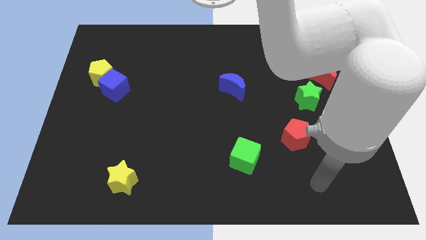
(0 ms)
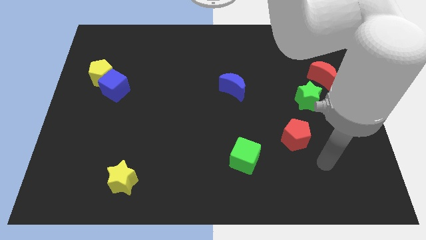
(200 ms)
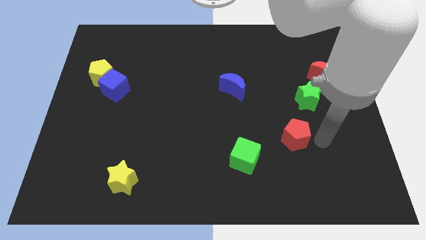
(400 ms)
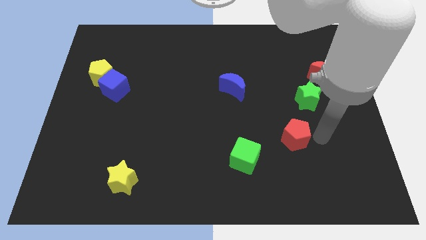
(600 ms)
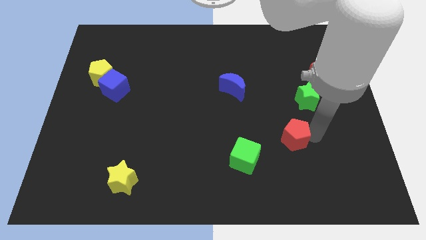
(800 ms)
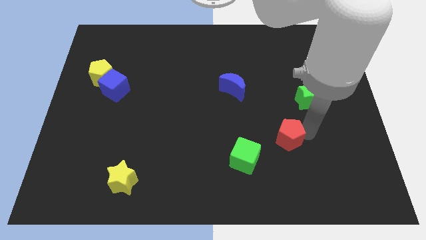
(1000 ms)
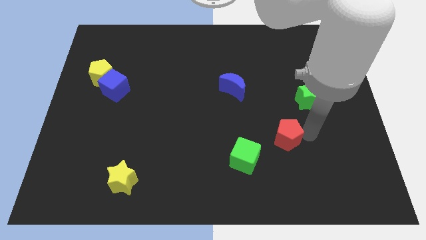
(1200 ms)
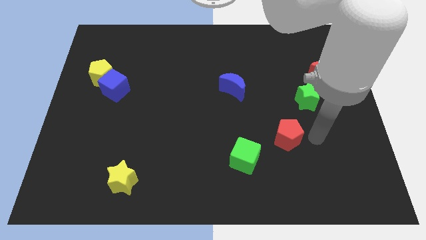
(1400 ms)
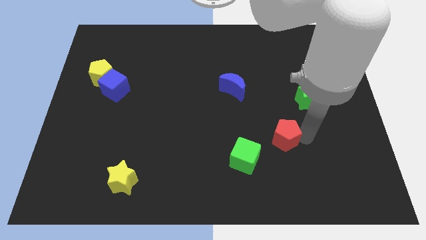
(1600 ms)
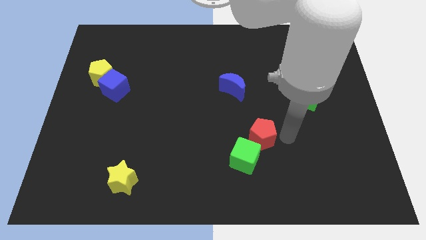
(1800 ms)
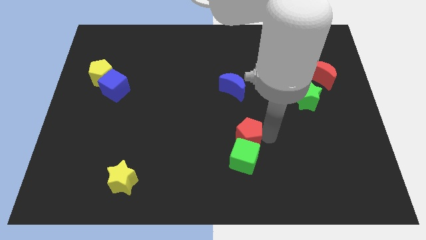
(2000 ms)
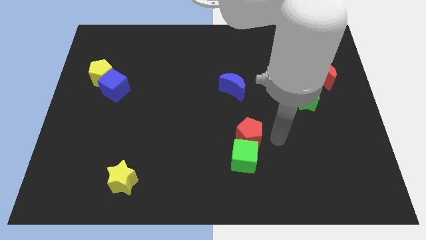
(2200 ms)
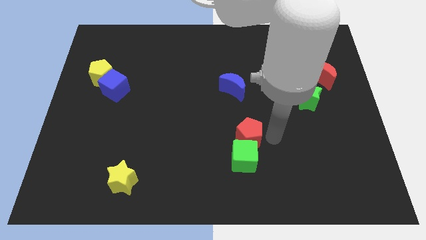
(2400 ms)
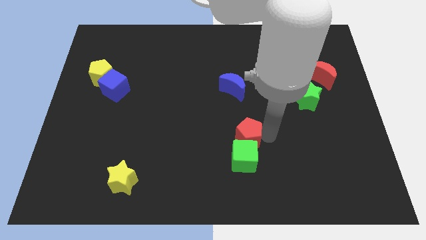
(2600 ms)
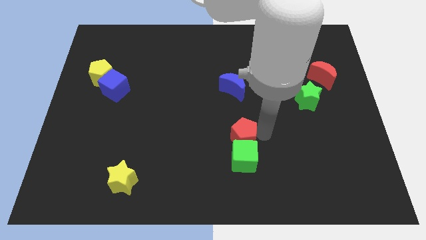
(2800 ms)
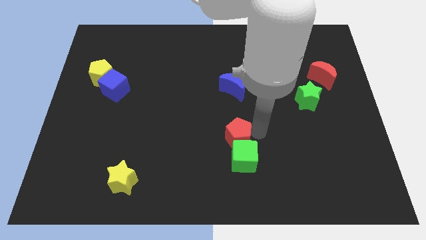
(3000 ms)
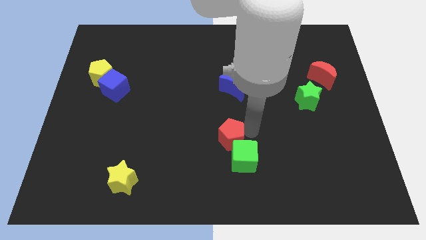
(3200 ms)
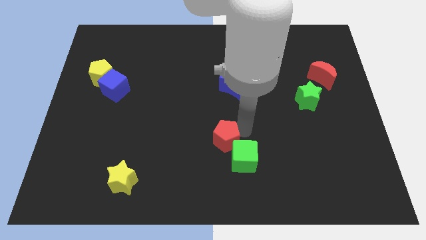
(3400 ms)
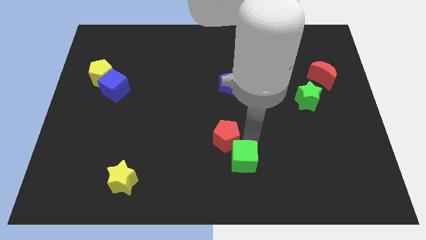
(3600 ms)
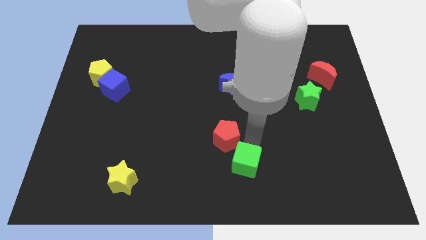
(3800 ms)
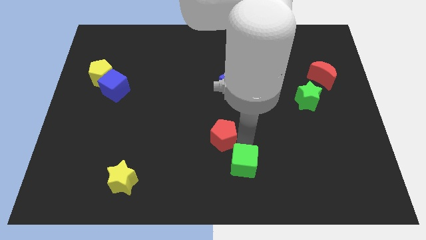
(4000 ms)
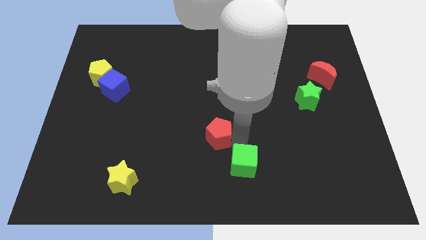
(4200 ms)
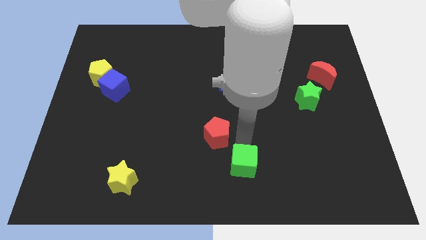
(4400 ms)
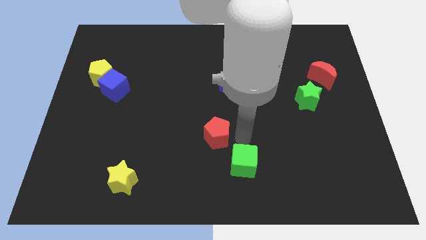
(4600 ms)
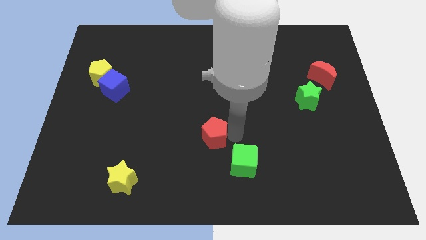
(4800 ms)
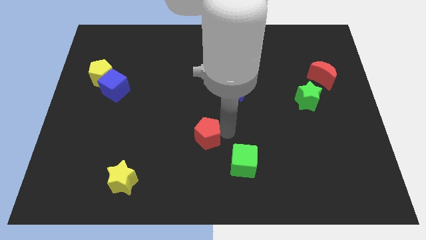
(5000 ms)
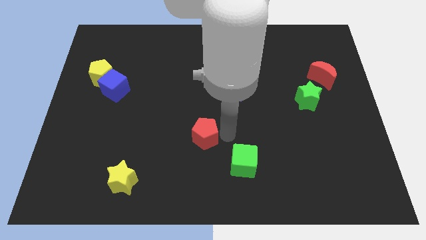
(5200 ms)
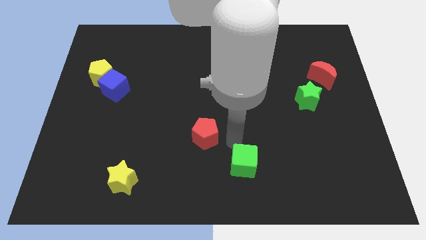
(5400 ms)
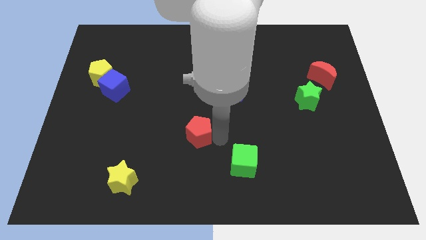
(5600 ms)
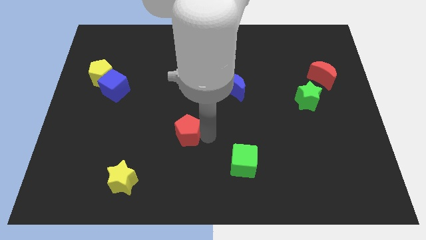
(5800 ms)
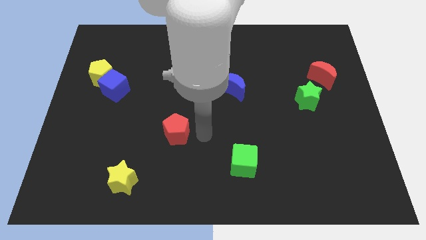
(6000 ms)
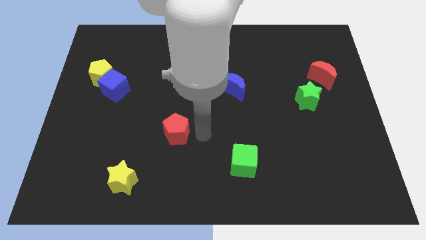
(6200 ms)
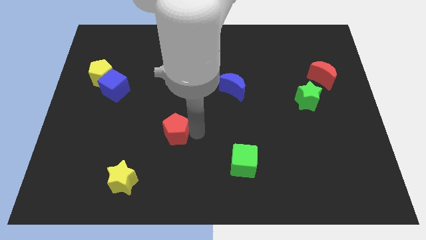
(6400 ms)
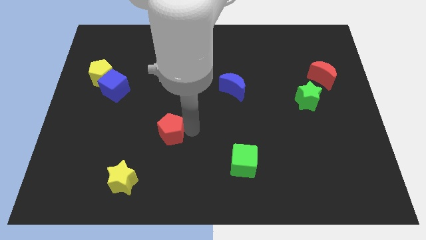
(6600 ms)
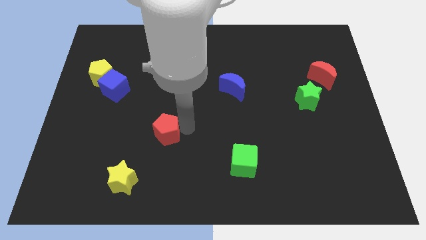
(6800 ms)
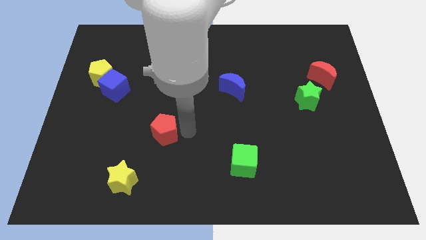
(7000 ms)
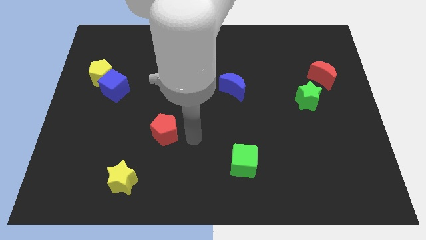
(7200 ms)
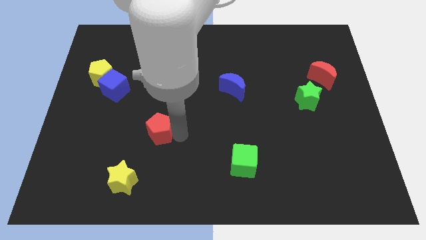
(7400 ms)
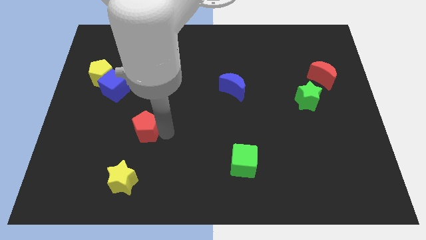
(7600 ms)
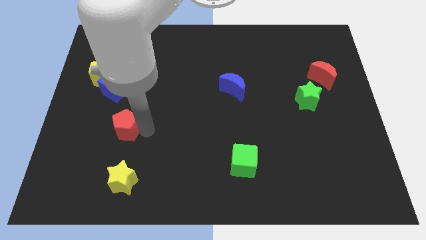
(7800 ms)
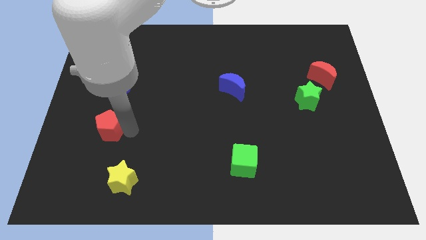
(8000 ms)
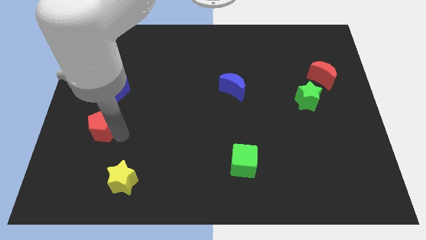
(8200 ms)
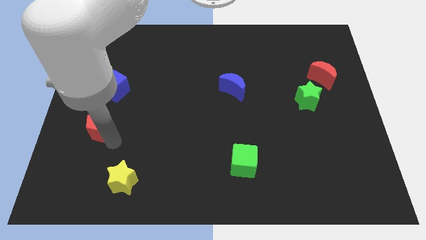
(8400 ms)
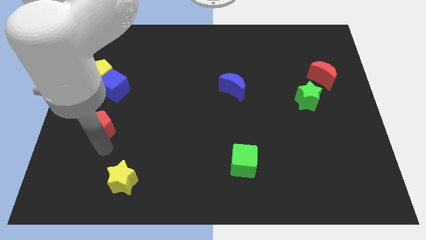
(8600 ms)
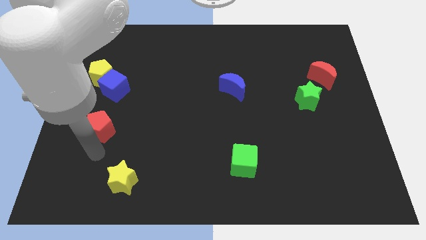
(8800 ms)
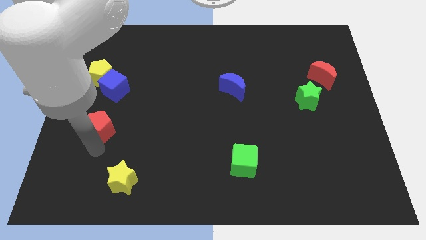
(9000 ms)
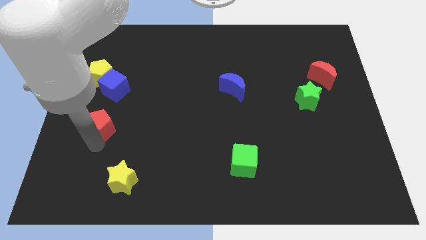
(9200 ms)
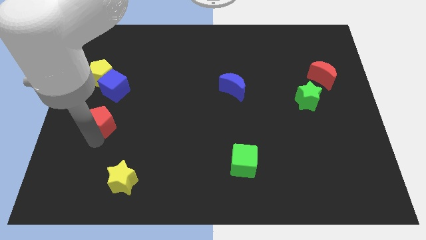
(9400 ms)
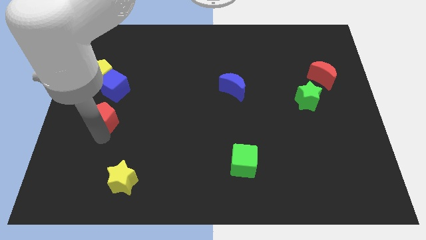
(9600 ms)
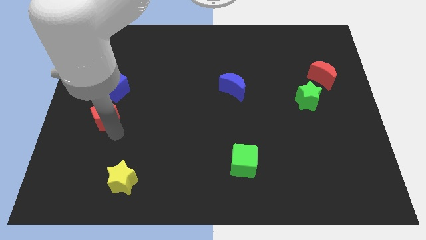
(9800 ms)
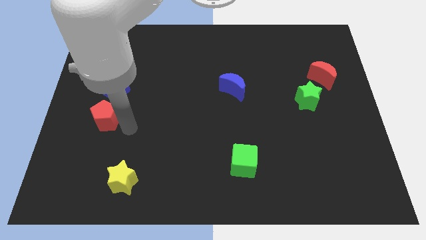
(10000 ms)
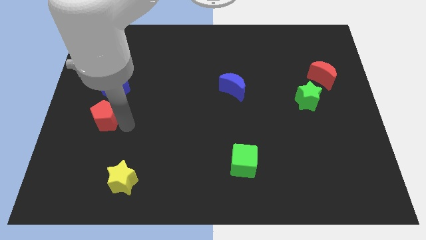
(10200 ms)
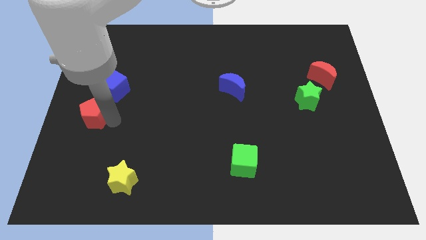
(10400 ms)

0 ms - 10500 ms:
slide the red pentagon to the left side of the board

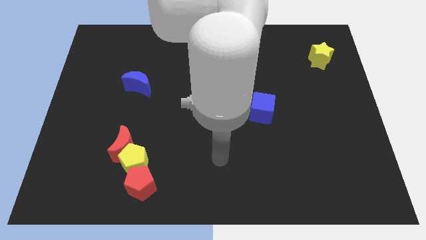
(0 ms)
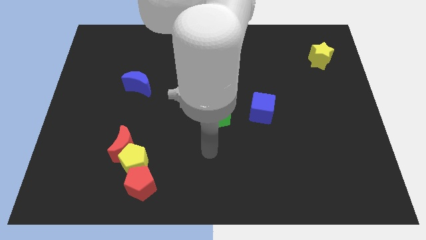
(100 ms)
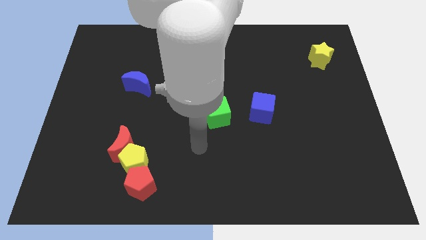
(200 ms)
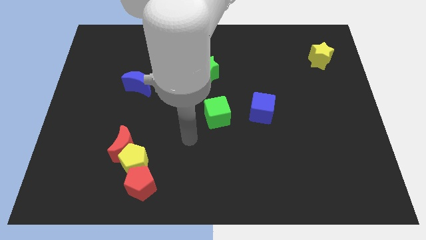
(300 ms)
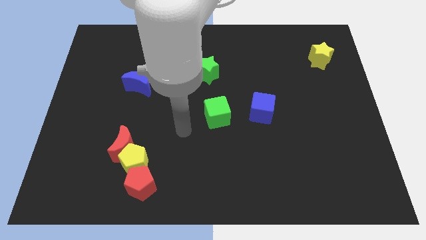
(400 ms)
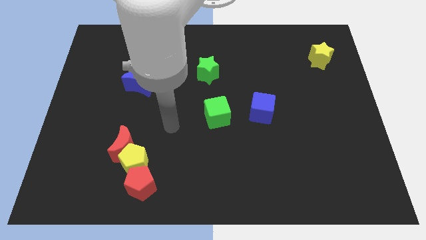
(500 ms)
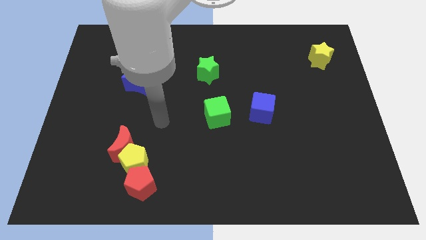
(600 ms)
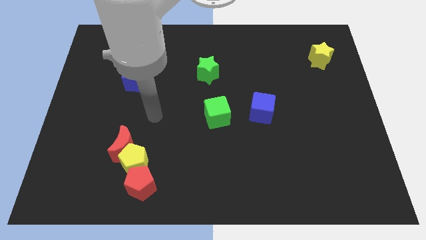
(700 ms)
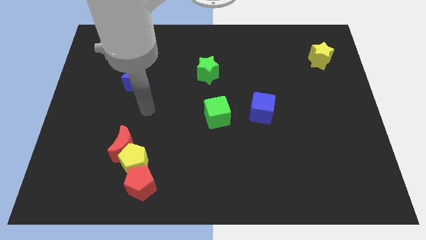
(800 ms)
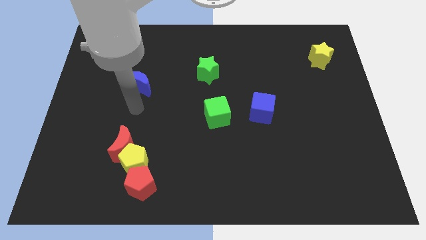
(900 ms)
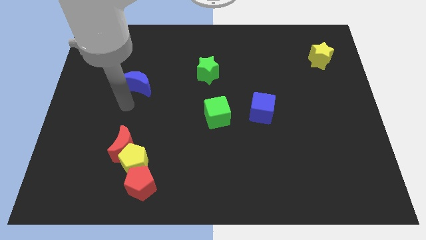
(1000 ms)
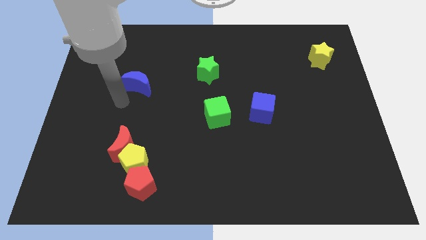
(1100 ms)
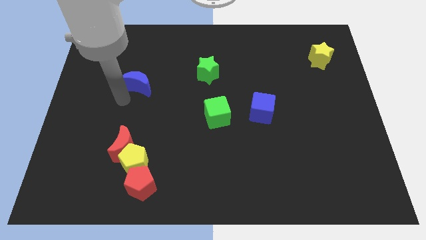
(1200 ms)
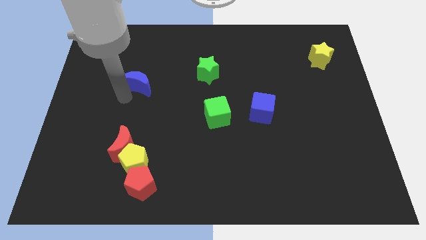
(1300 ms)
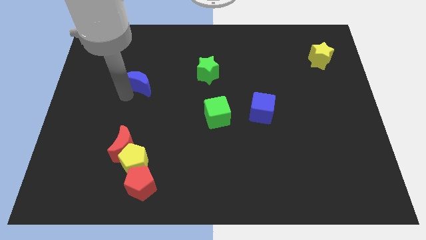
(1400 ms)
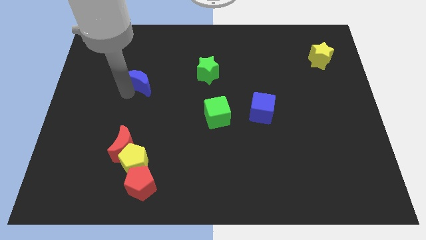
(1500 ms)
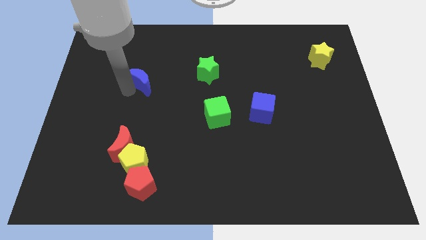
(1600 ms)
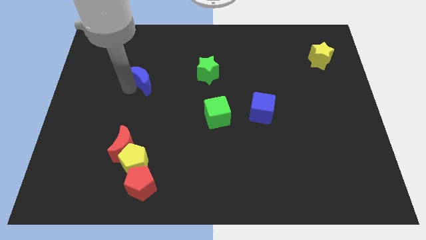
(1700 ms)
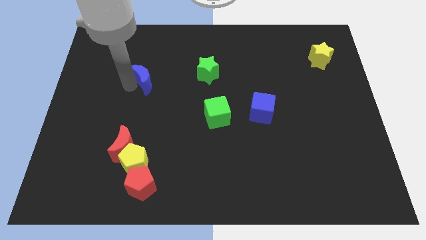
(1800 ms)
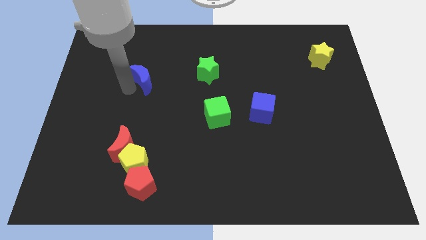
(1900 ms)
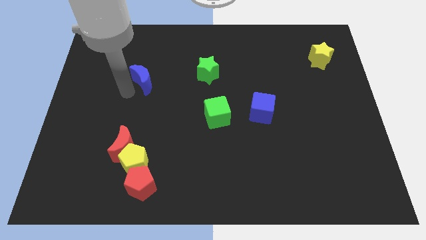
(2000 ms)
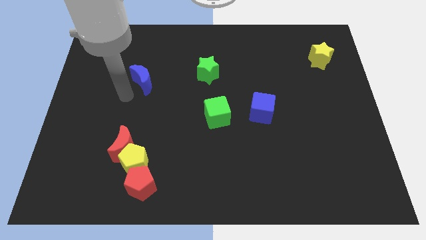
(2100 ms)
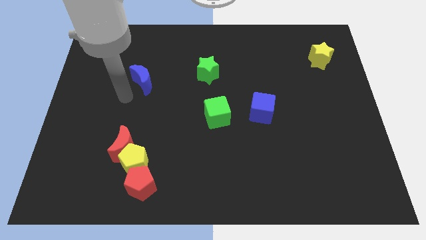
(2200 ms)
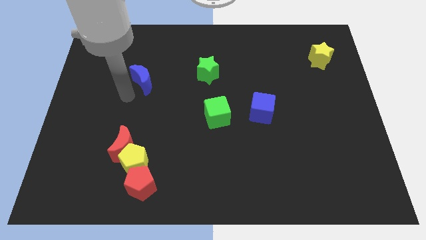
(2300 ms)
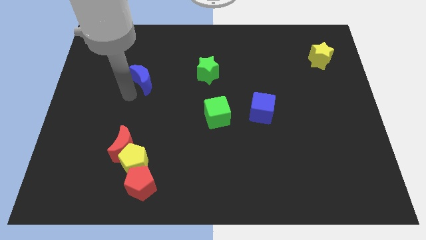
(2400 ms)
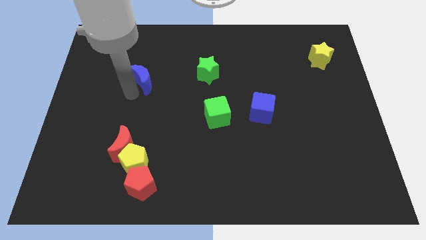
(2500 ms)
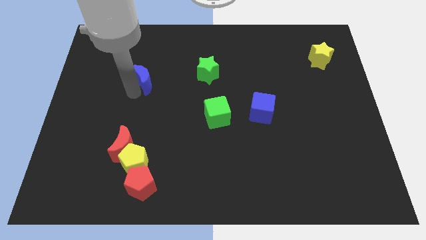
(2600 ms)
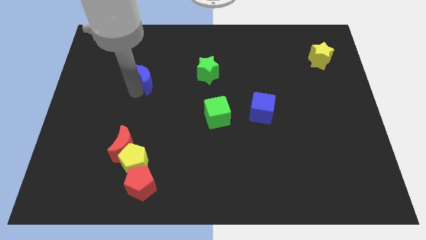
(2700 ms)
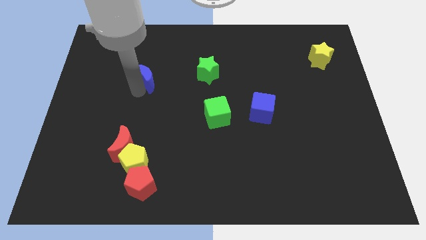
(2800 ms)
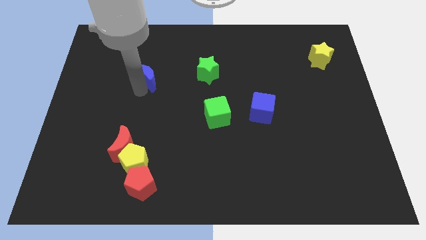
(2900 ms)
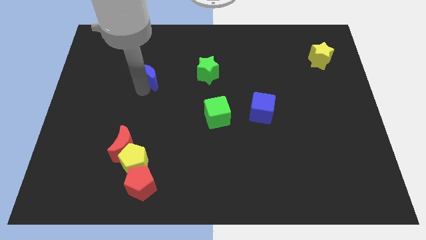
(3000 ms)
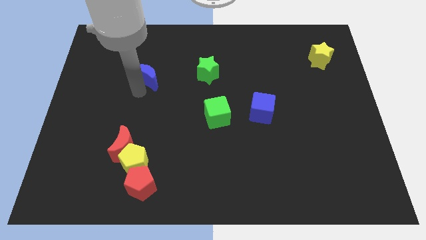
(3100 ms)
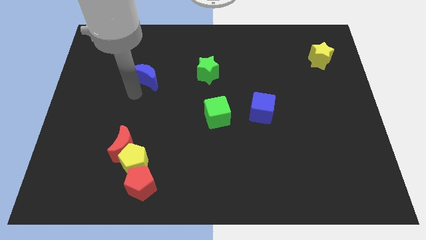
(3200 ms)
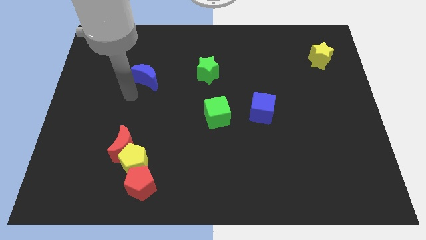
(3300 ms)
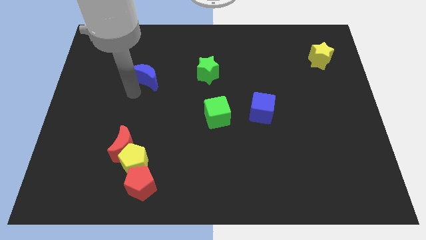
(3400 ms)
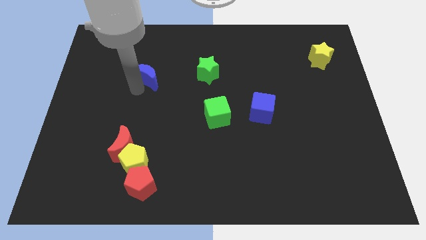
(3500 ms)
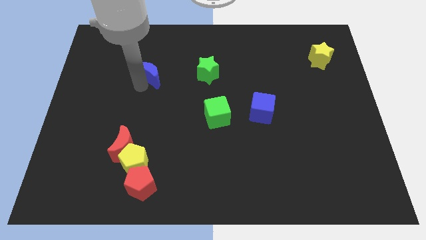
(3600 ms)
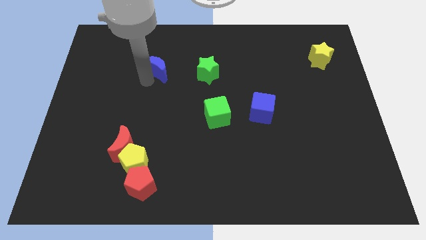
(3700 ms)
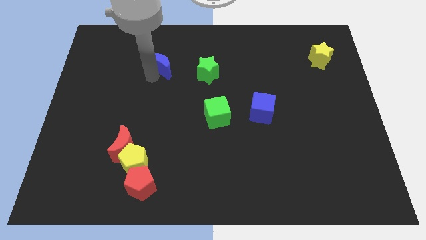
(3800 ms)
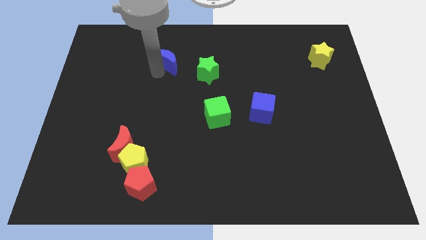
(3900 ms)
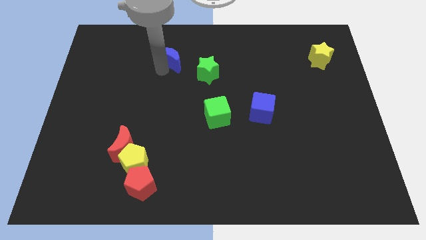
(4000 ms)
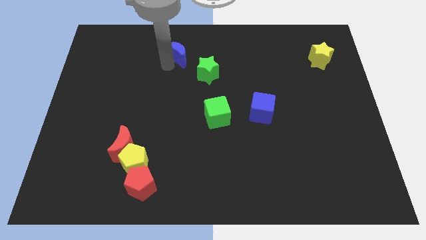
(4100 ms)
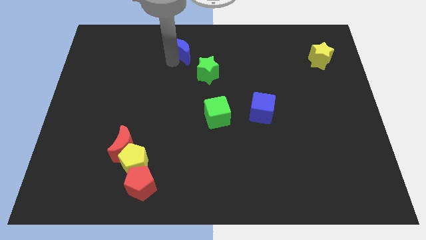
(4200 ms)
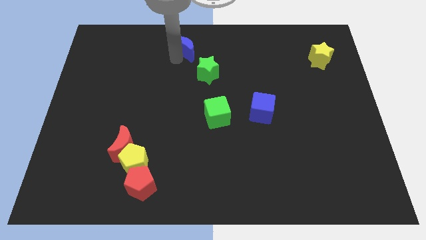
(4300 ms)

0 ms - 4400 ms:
slide the blue moon to the top
